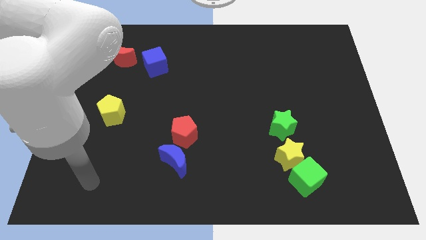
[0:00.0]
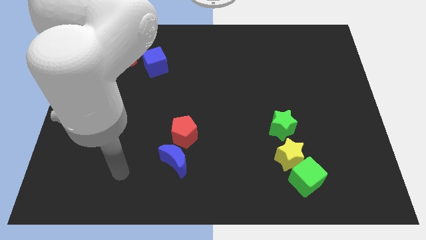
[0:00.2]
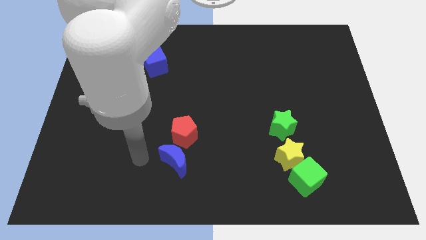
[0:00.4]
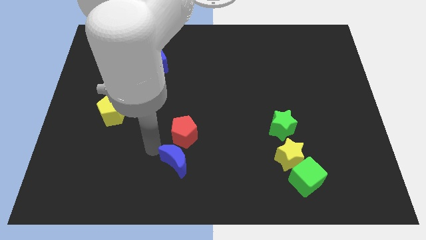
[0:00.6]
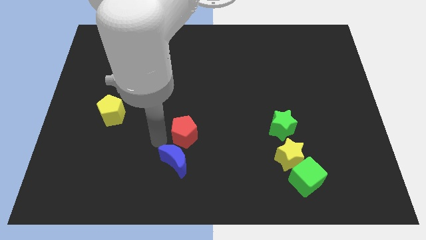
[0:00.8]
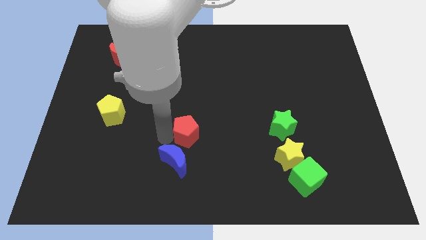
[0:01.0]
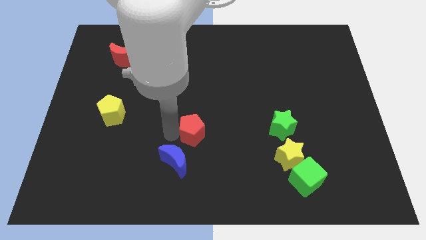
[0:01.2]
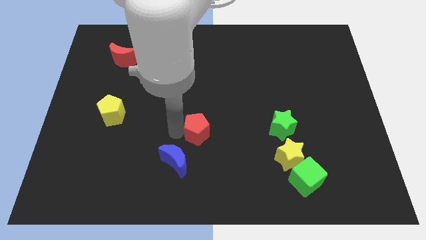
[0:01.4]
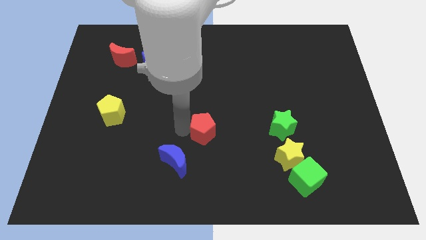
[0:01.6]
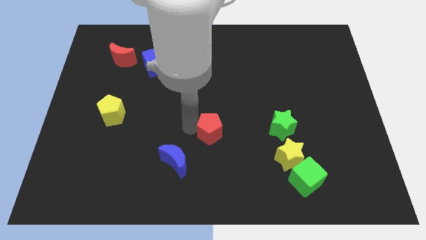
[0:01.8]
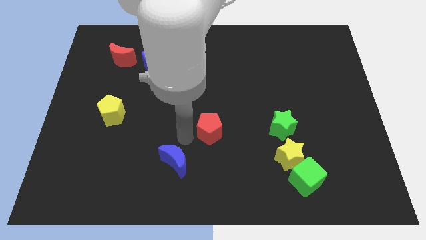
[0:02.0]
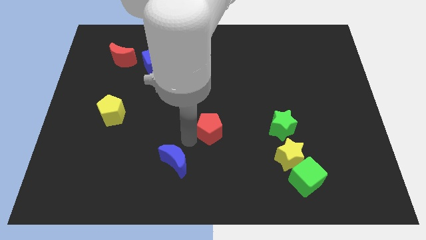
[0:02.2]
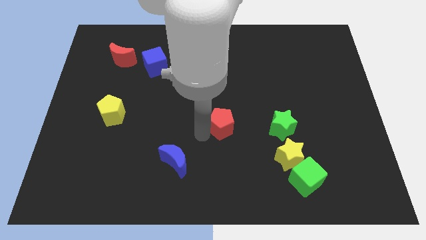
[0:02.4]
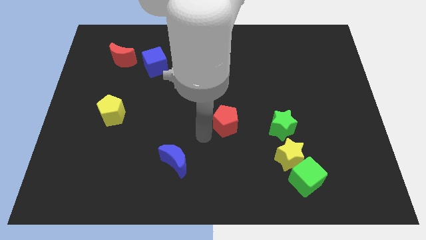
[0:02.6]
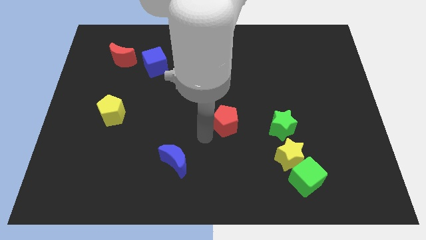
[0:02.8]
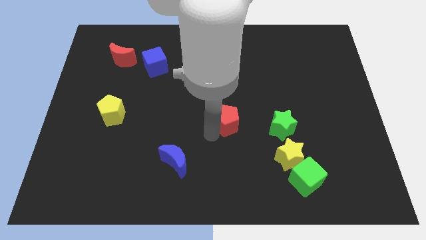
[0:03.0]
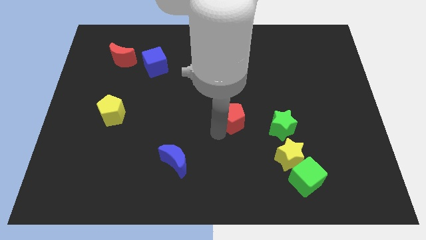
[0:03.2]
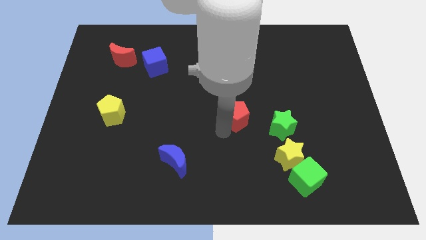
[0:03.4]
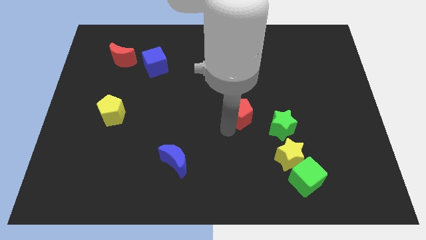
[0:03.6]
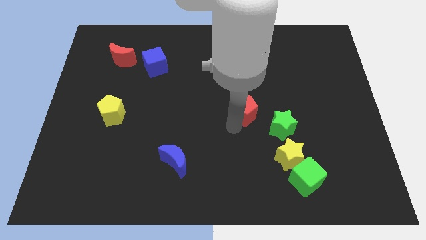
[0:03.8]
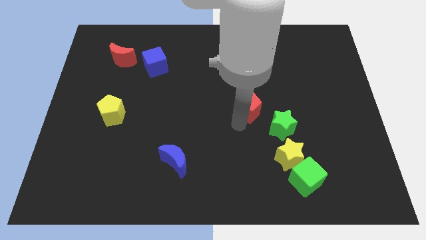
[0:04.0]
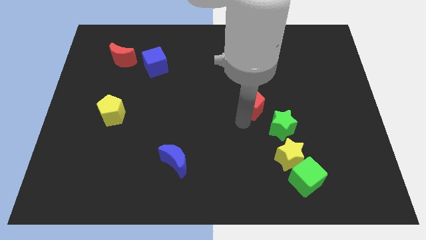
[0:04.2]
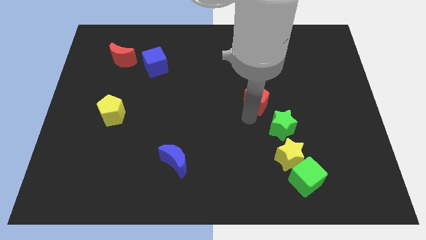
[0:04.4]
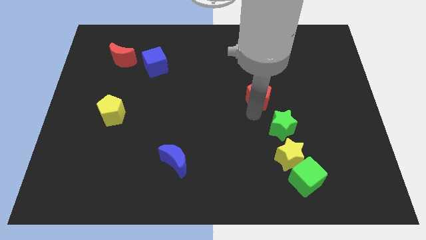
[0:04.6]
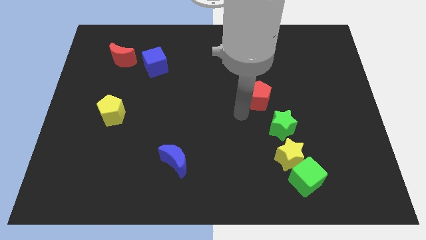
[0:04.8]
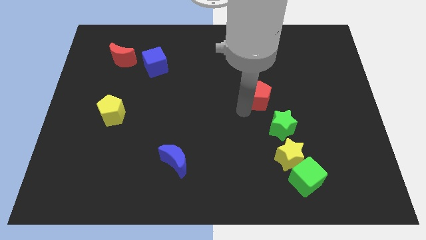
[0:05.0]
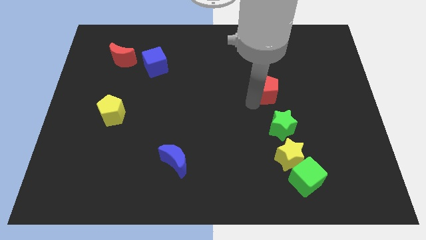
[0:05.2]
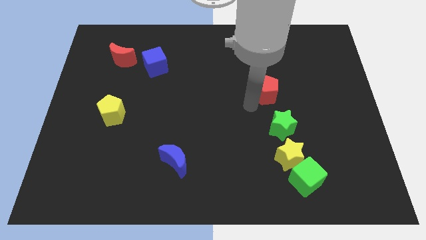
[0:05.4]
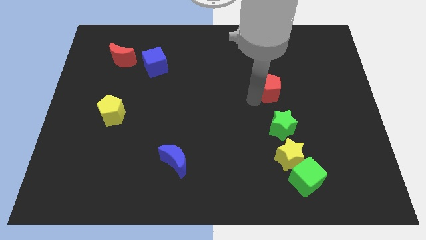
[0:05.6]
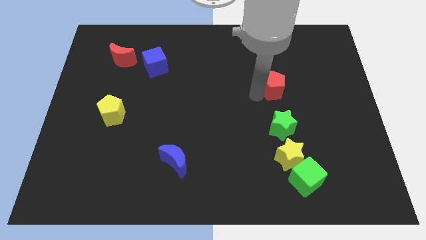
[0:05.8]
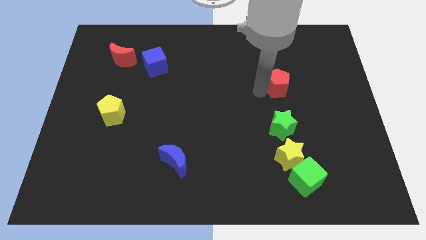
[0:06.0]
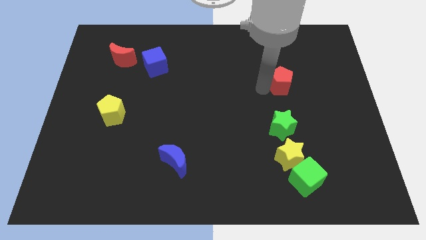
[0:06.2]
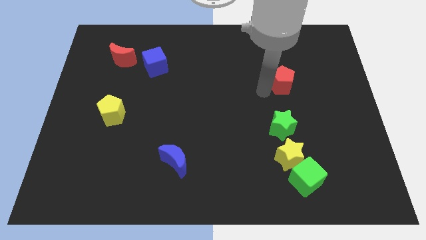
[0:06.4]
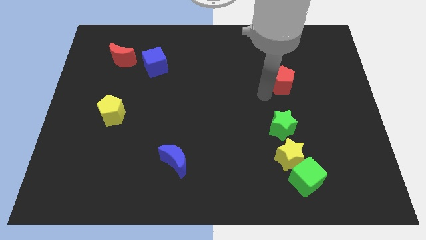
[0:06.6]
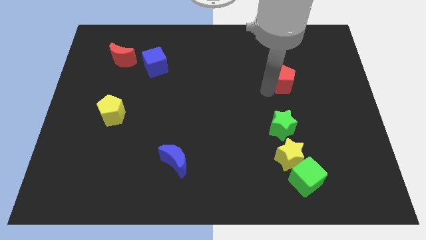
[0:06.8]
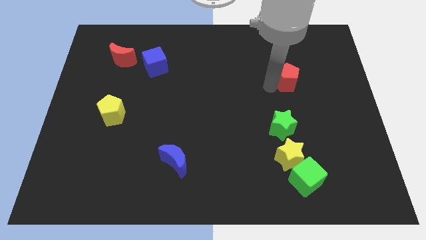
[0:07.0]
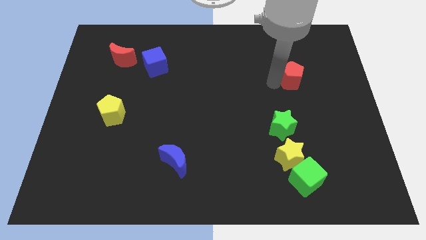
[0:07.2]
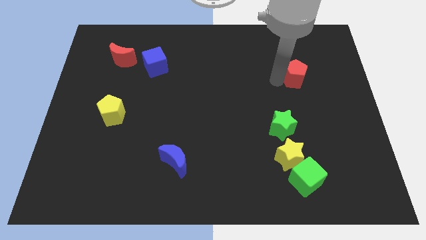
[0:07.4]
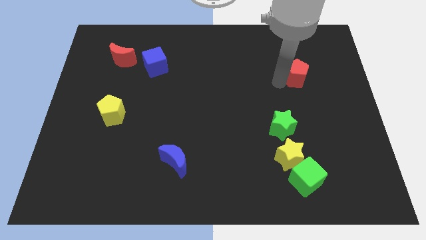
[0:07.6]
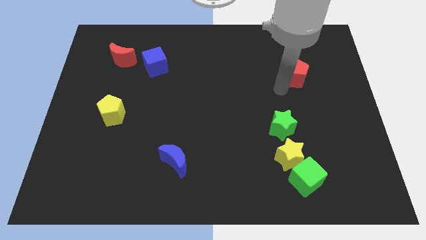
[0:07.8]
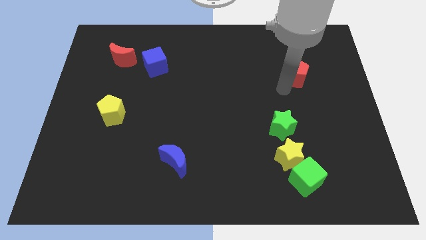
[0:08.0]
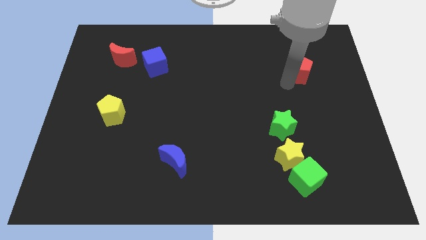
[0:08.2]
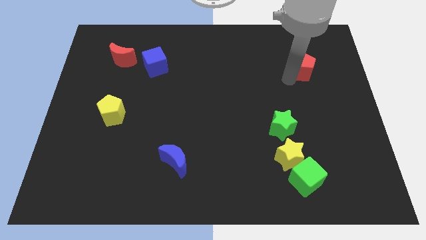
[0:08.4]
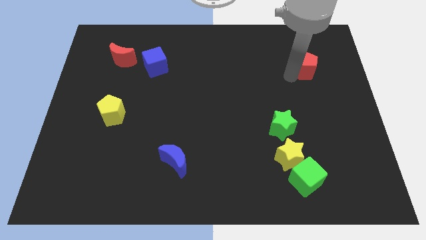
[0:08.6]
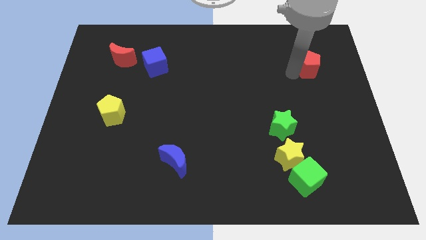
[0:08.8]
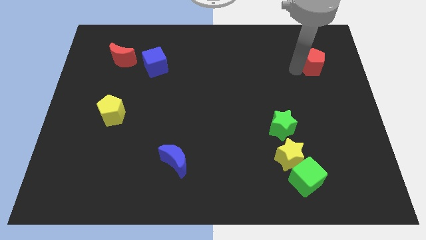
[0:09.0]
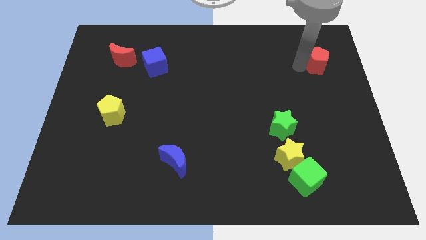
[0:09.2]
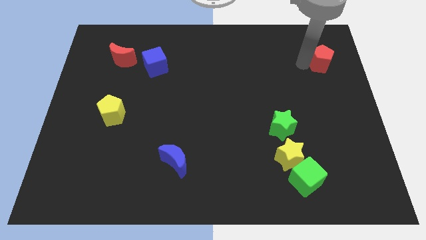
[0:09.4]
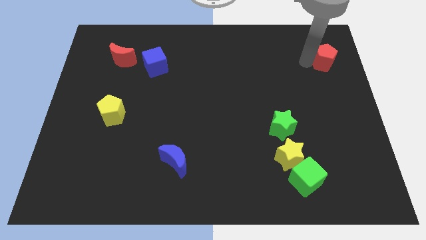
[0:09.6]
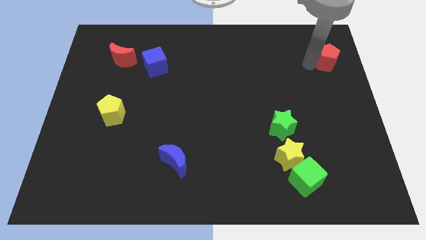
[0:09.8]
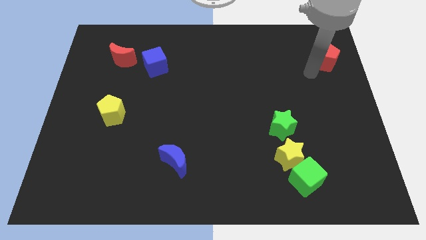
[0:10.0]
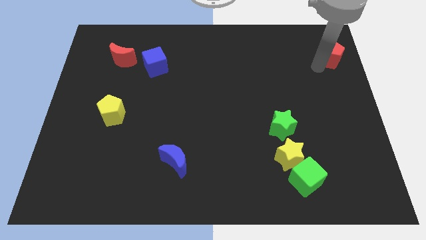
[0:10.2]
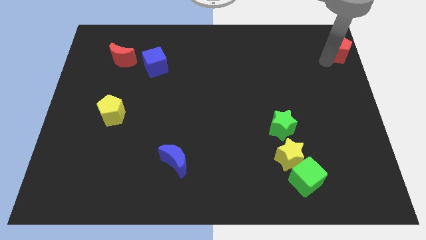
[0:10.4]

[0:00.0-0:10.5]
move the red pentagon to the top right corner

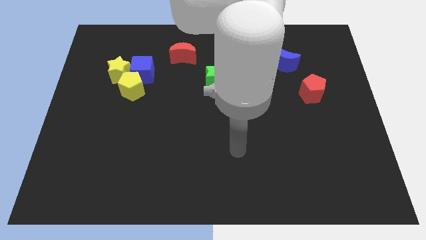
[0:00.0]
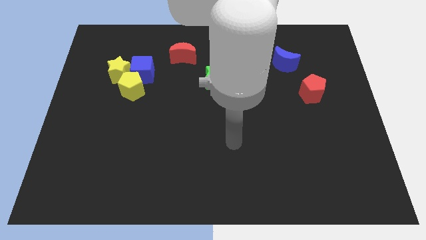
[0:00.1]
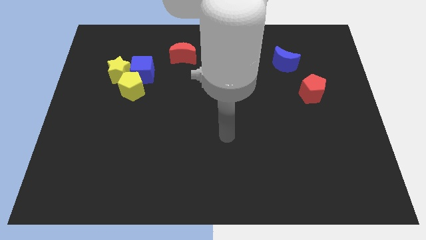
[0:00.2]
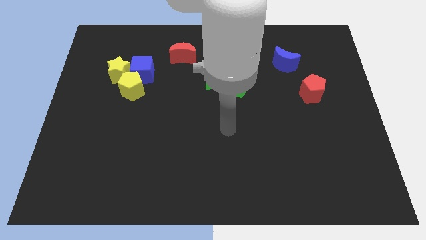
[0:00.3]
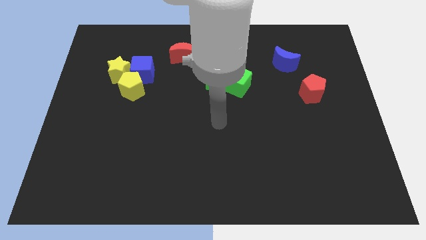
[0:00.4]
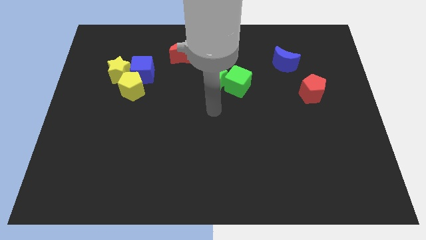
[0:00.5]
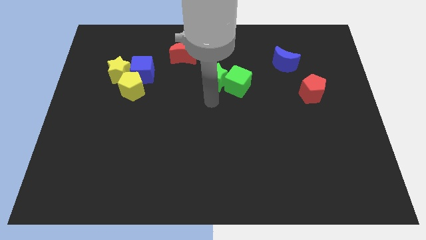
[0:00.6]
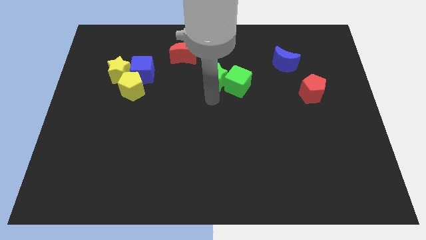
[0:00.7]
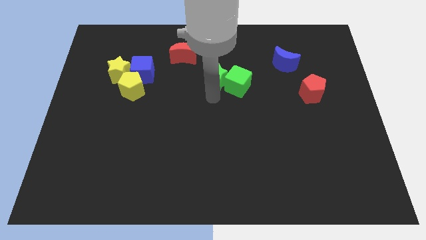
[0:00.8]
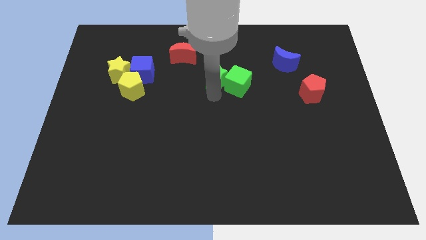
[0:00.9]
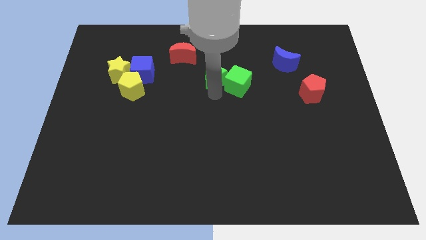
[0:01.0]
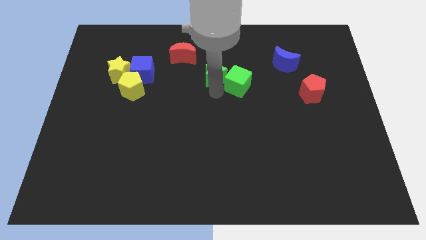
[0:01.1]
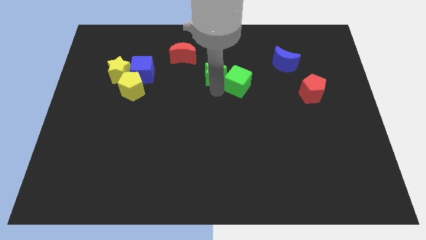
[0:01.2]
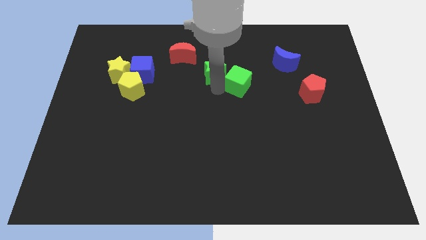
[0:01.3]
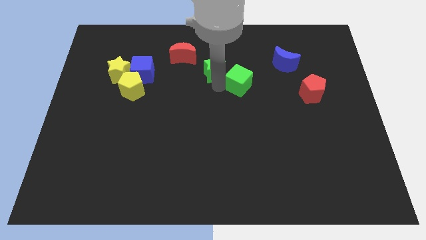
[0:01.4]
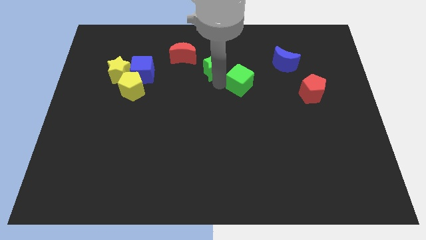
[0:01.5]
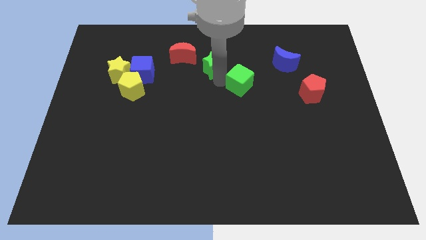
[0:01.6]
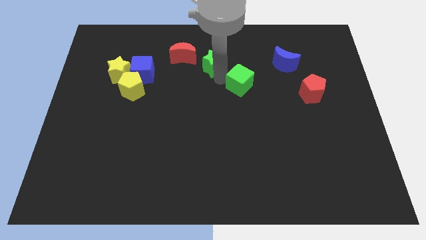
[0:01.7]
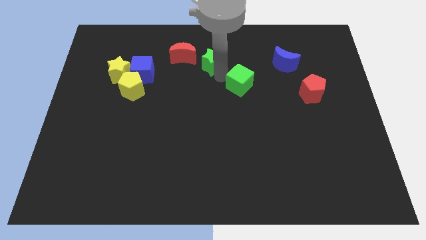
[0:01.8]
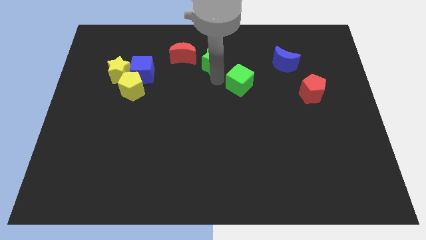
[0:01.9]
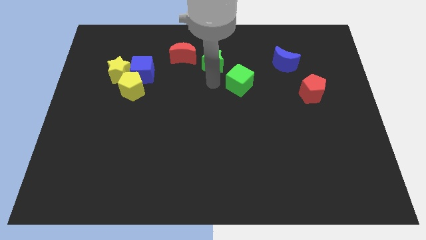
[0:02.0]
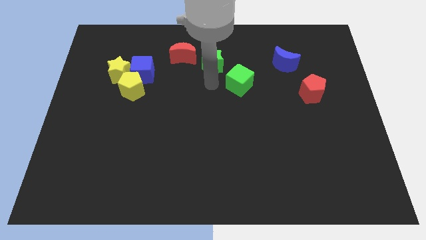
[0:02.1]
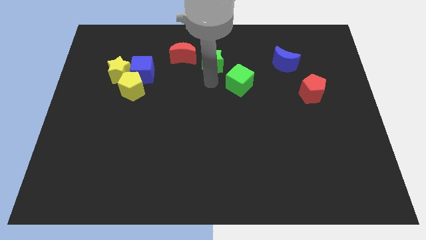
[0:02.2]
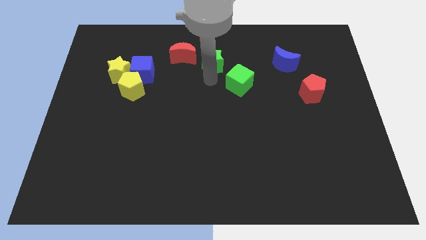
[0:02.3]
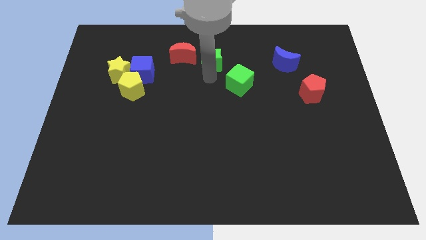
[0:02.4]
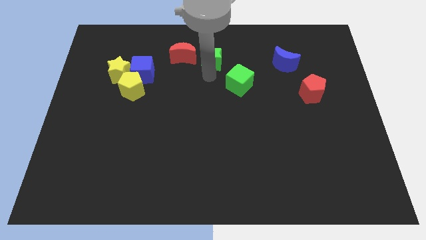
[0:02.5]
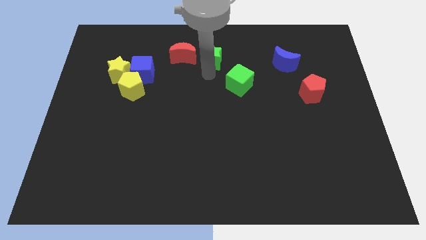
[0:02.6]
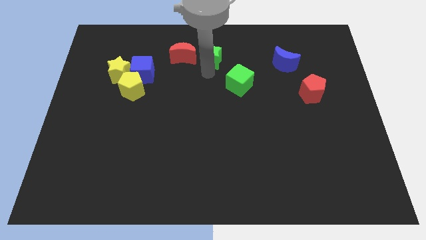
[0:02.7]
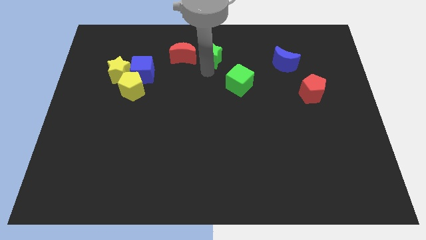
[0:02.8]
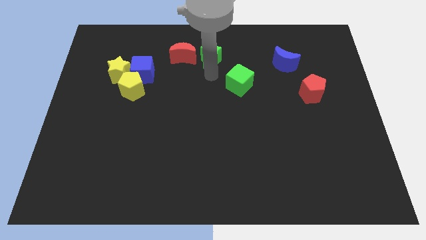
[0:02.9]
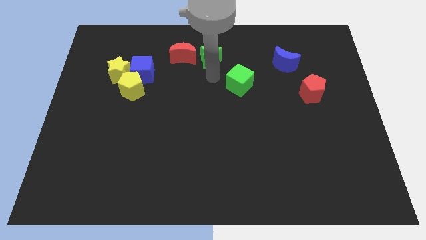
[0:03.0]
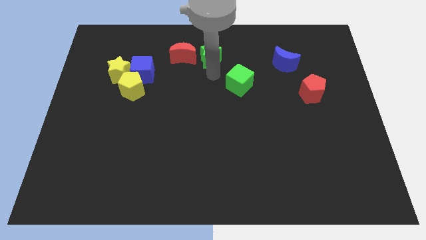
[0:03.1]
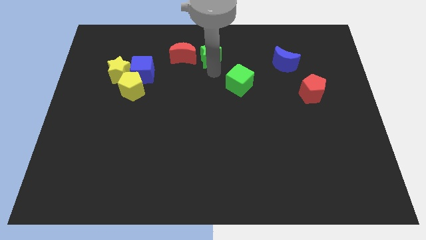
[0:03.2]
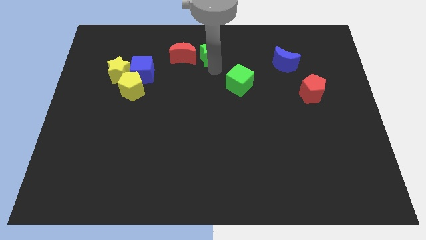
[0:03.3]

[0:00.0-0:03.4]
move the green star to the top side
